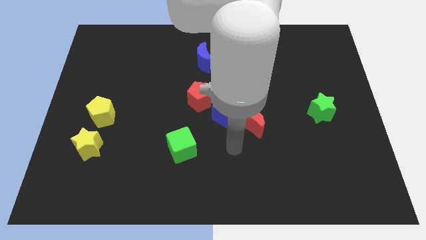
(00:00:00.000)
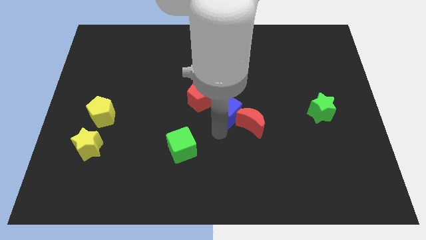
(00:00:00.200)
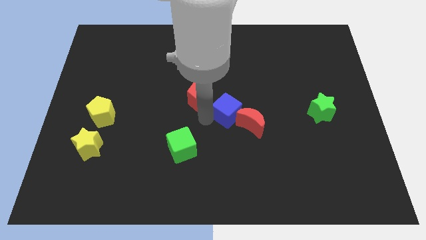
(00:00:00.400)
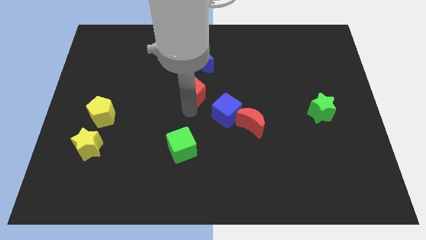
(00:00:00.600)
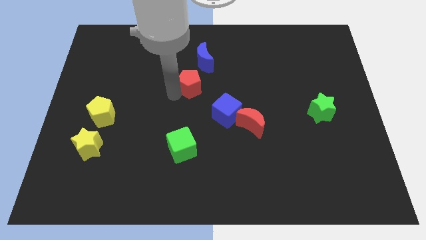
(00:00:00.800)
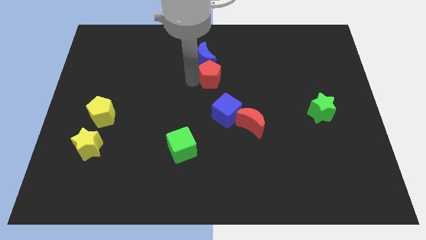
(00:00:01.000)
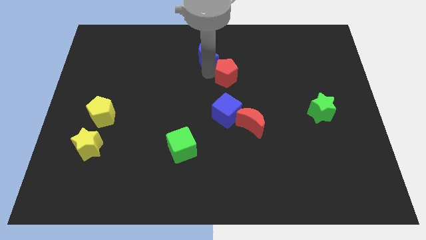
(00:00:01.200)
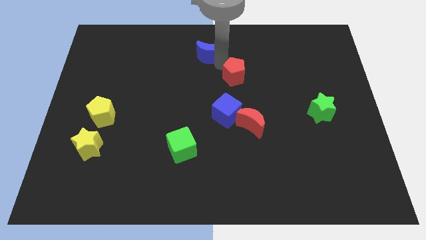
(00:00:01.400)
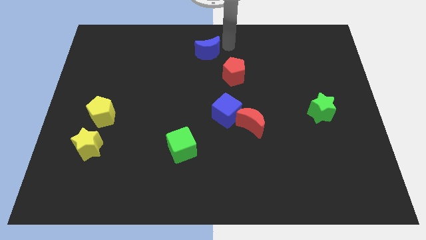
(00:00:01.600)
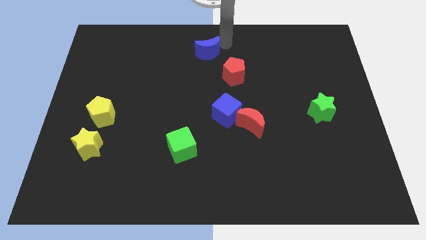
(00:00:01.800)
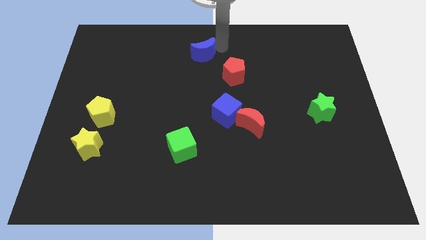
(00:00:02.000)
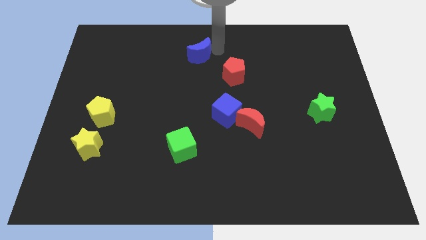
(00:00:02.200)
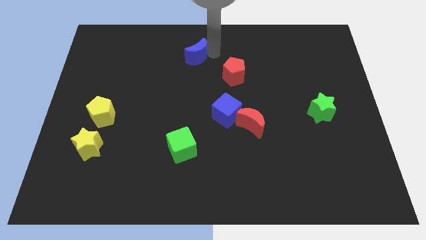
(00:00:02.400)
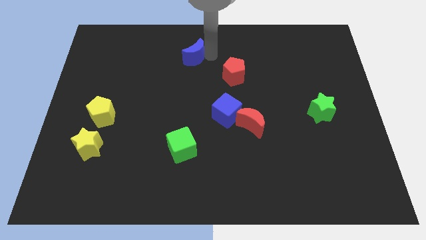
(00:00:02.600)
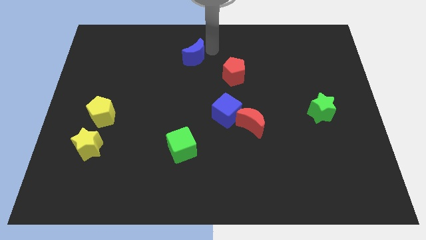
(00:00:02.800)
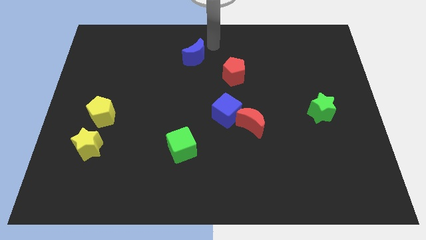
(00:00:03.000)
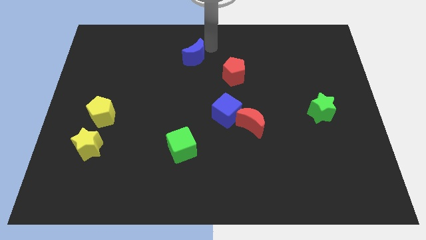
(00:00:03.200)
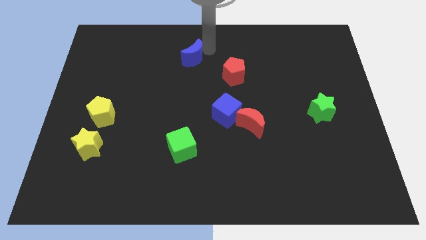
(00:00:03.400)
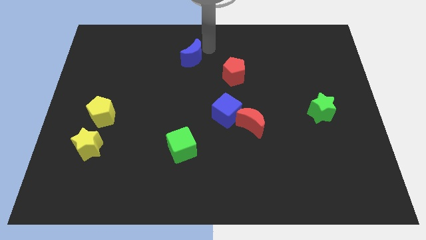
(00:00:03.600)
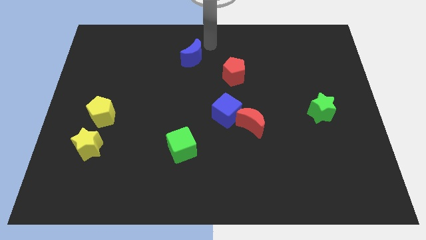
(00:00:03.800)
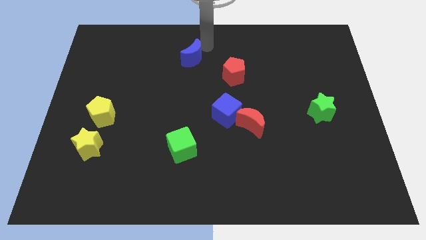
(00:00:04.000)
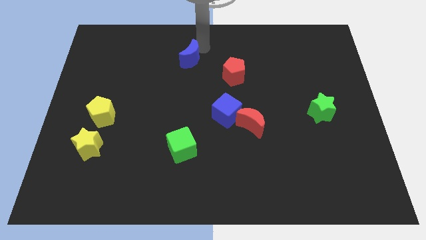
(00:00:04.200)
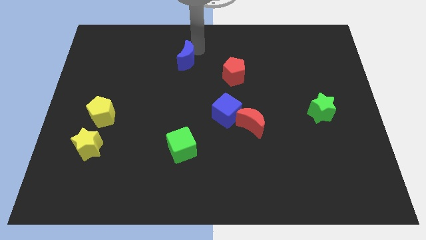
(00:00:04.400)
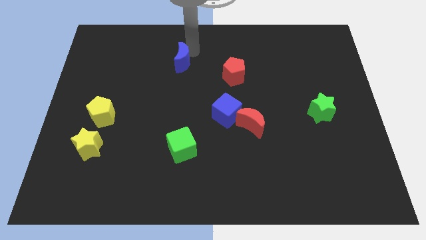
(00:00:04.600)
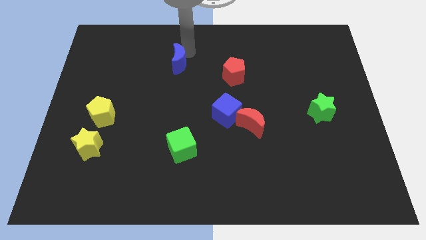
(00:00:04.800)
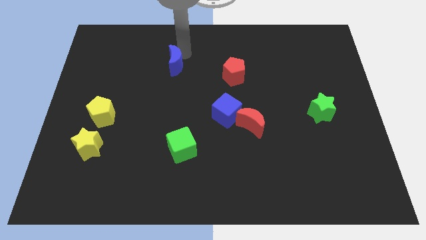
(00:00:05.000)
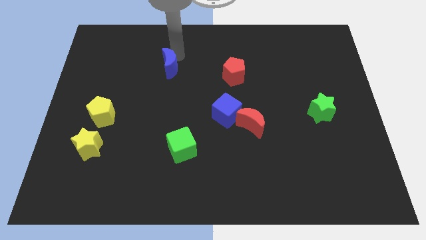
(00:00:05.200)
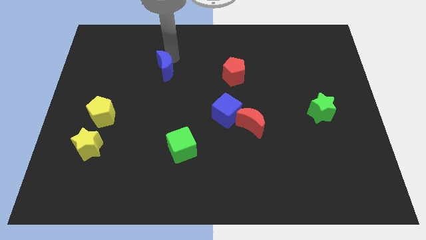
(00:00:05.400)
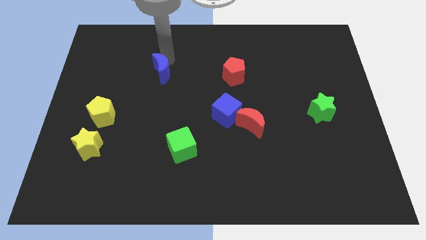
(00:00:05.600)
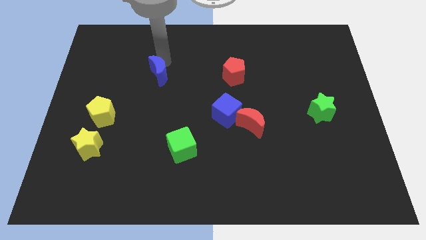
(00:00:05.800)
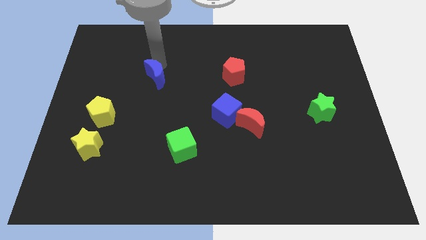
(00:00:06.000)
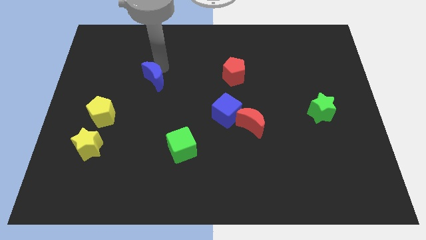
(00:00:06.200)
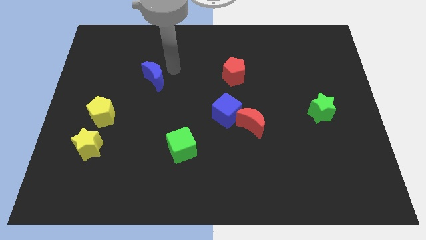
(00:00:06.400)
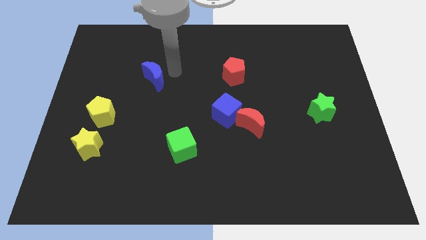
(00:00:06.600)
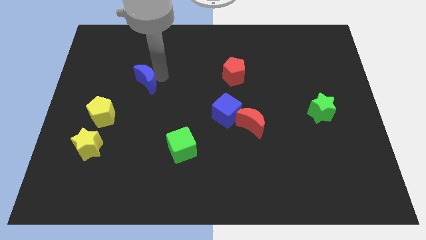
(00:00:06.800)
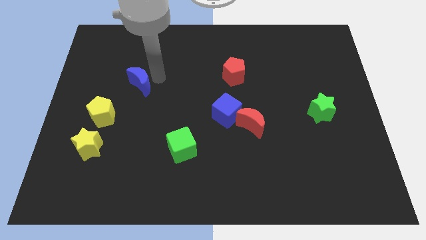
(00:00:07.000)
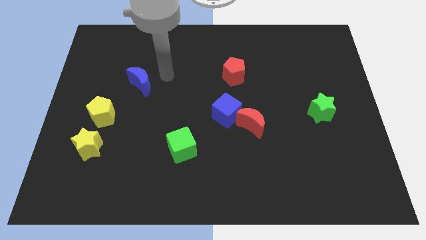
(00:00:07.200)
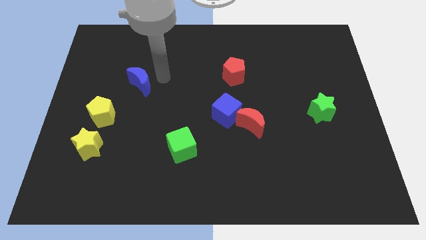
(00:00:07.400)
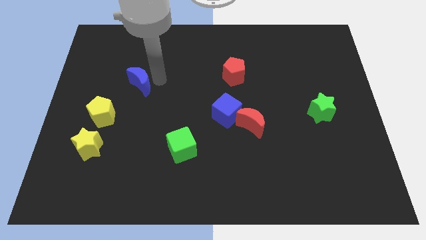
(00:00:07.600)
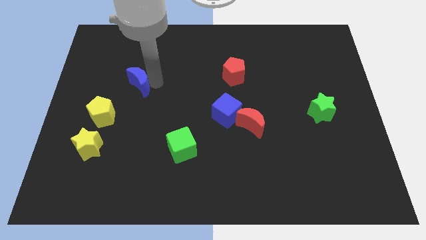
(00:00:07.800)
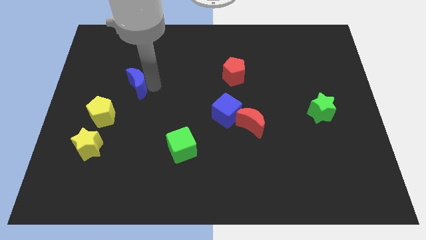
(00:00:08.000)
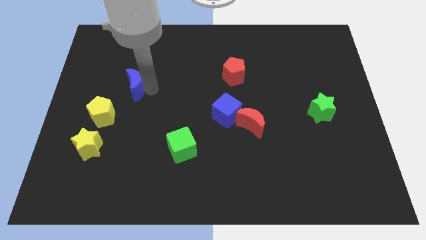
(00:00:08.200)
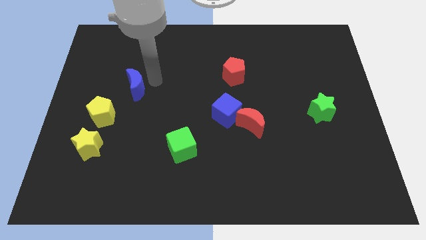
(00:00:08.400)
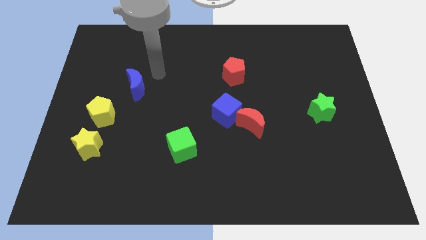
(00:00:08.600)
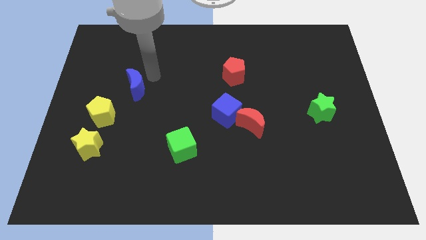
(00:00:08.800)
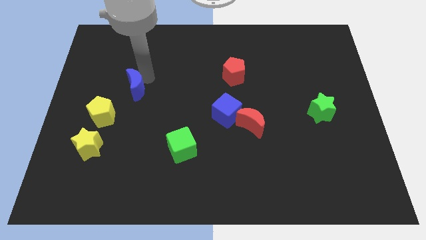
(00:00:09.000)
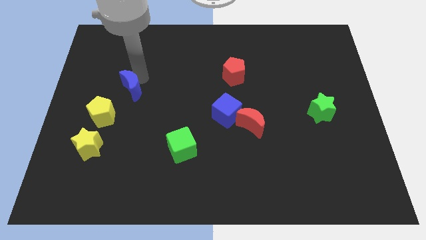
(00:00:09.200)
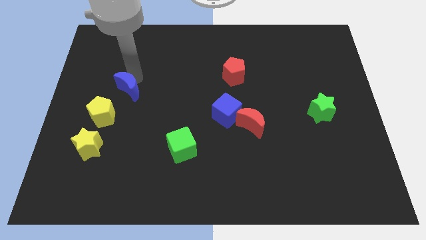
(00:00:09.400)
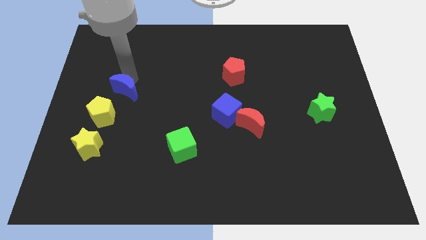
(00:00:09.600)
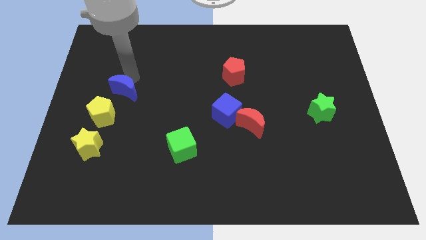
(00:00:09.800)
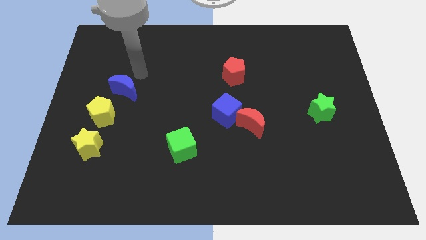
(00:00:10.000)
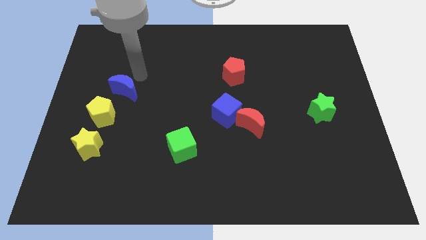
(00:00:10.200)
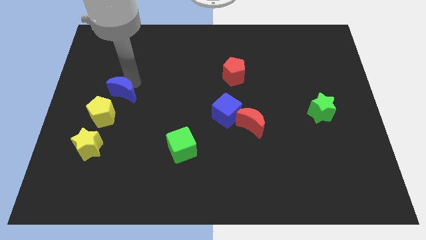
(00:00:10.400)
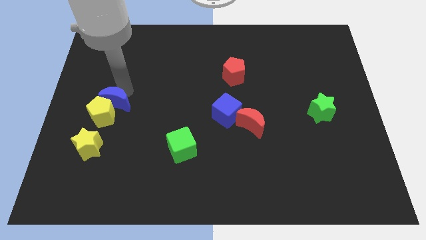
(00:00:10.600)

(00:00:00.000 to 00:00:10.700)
put the blue moon to the yellow pentagon

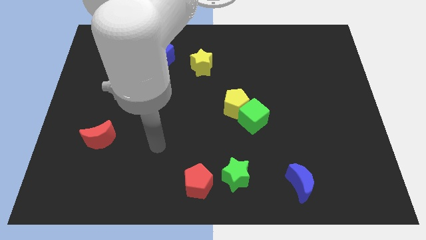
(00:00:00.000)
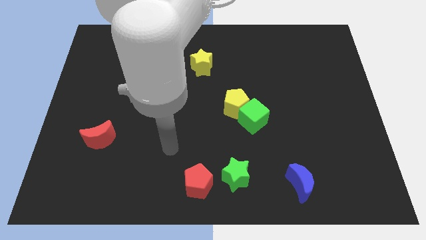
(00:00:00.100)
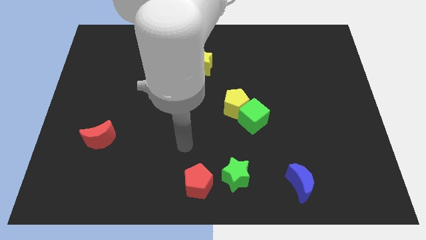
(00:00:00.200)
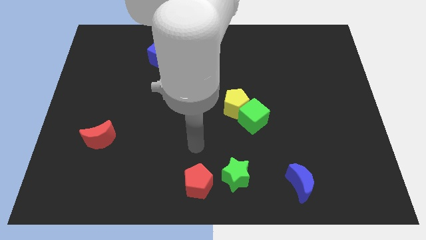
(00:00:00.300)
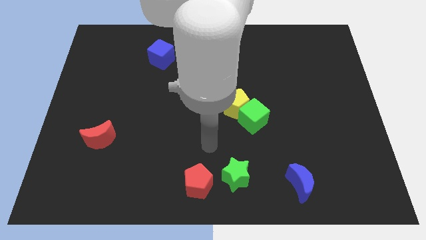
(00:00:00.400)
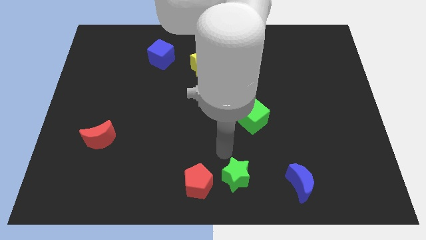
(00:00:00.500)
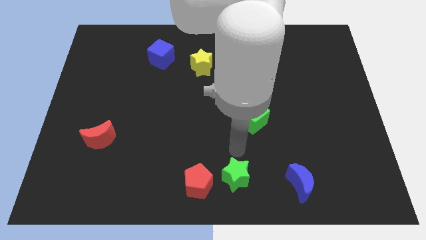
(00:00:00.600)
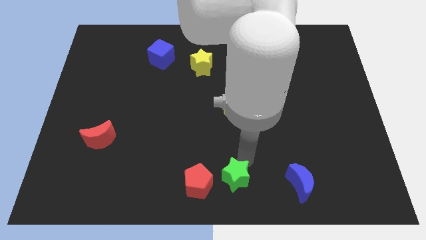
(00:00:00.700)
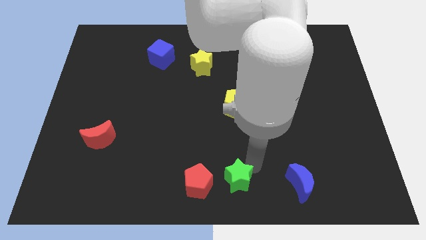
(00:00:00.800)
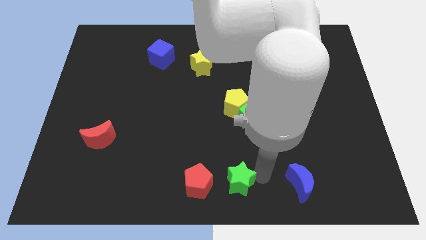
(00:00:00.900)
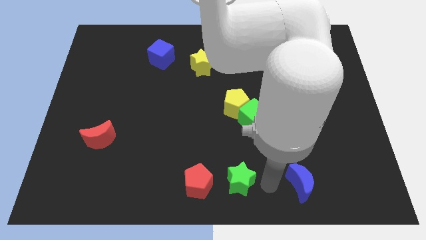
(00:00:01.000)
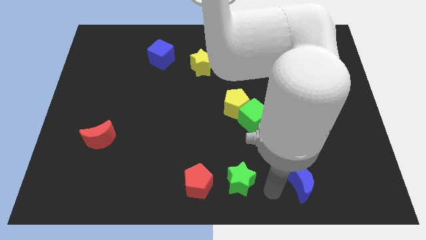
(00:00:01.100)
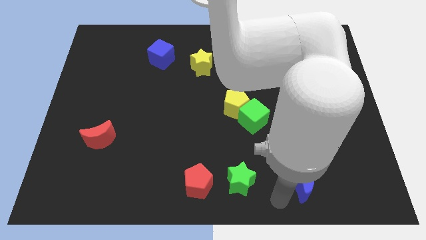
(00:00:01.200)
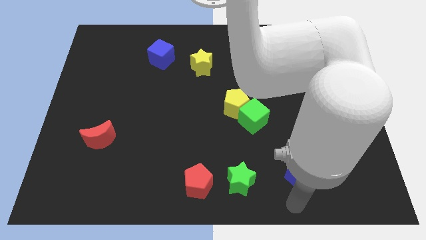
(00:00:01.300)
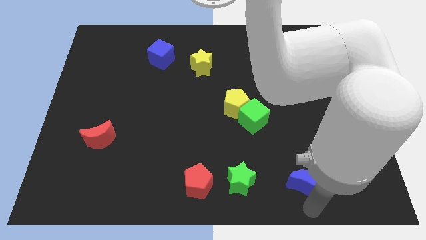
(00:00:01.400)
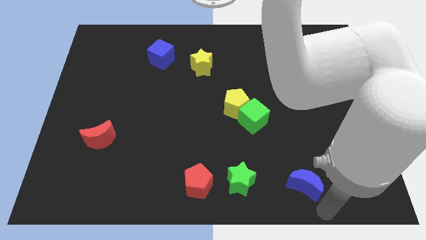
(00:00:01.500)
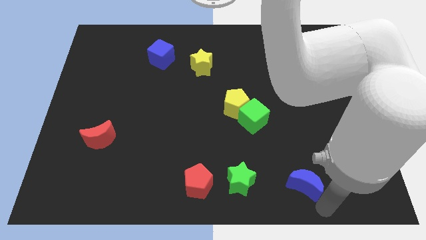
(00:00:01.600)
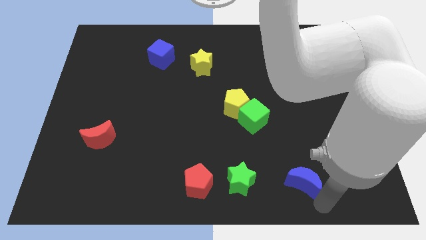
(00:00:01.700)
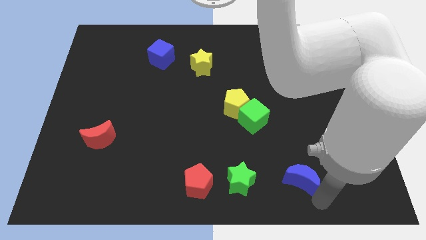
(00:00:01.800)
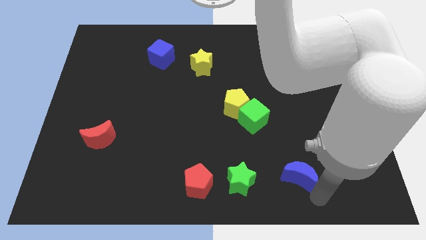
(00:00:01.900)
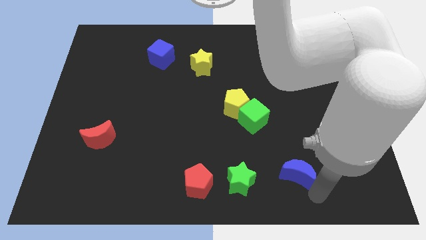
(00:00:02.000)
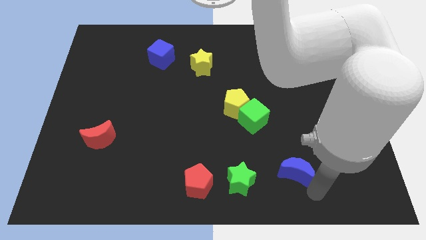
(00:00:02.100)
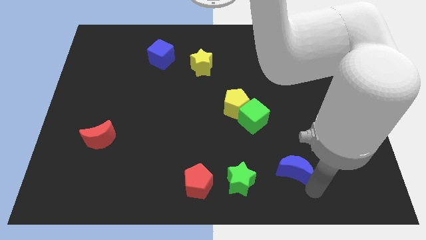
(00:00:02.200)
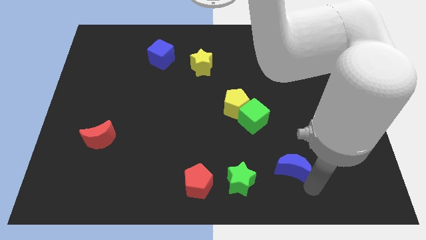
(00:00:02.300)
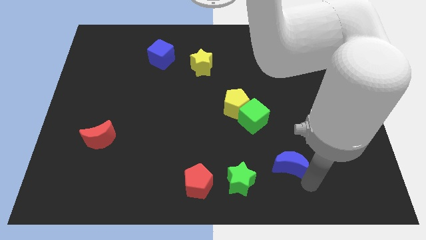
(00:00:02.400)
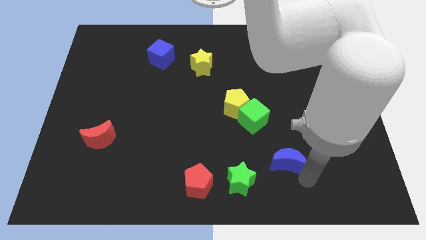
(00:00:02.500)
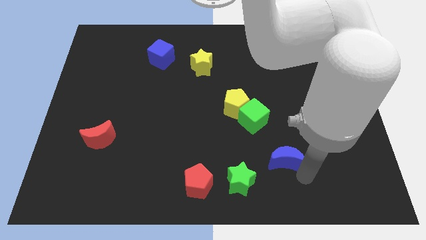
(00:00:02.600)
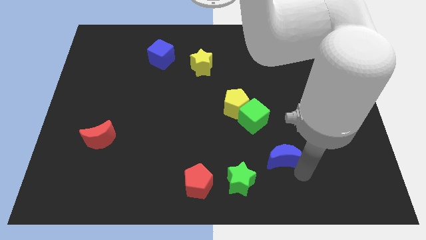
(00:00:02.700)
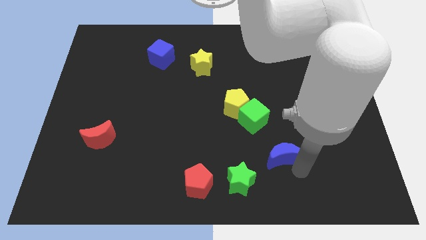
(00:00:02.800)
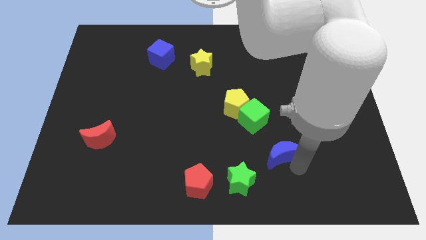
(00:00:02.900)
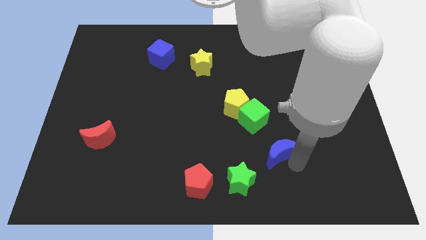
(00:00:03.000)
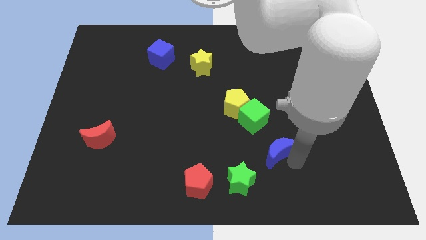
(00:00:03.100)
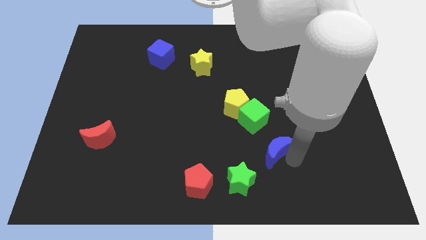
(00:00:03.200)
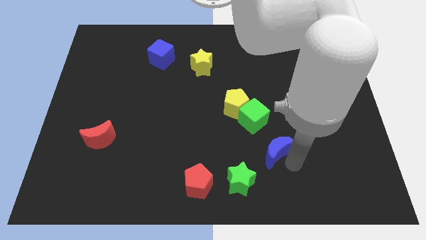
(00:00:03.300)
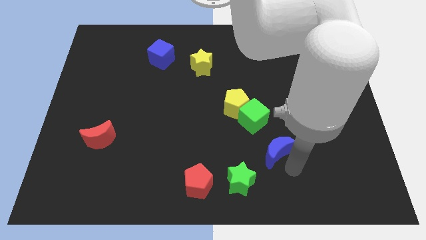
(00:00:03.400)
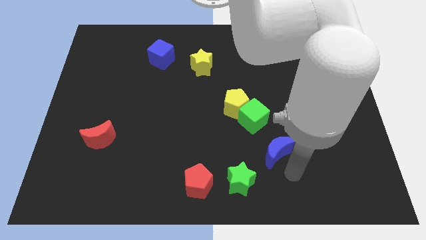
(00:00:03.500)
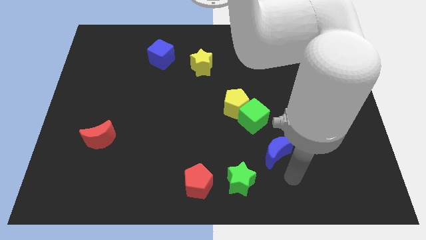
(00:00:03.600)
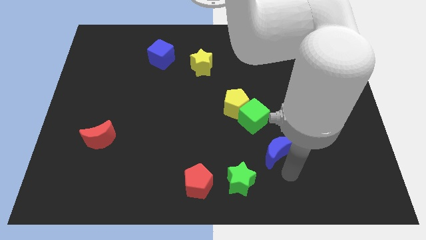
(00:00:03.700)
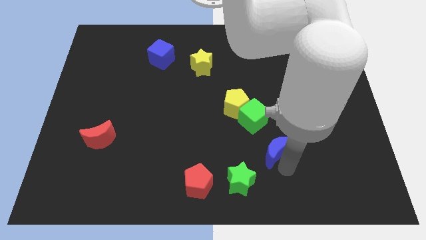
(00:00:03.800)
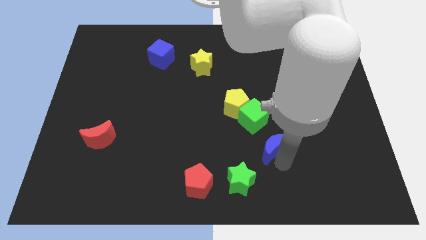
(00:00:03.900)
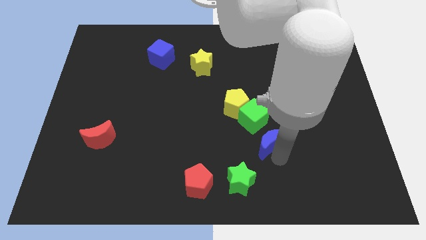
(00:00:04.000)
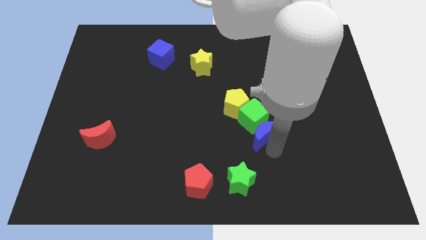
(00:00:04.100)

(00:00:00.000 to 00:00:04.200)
put the blue moon close to the green cube
